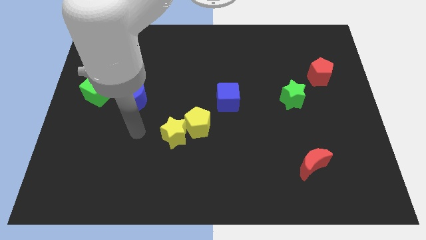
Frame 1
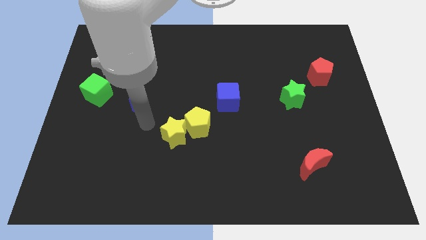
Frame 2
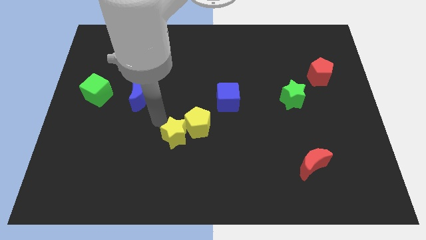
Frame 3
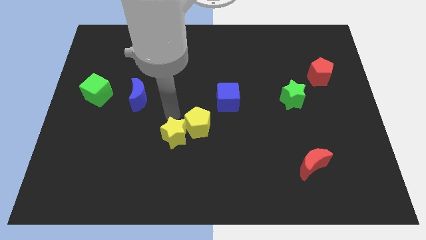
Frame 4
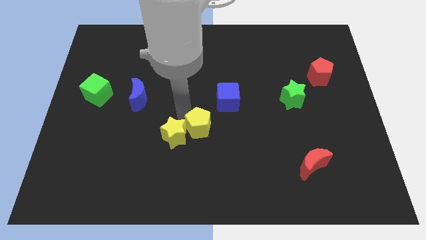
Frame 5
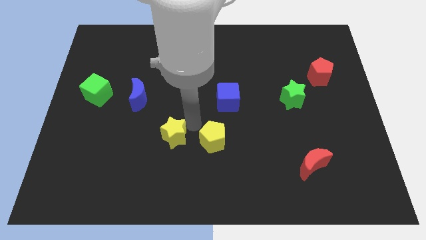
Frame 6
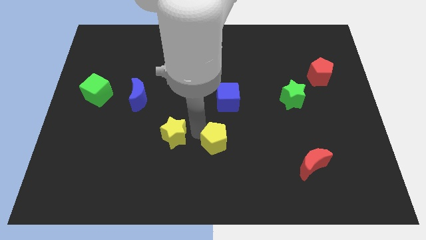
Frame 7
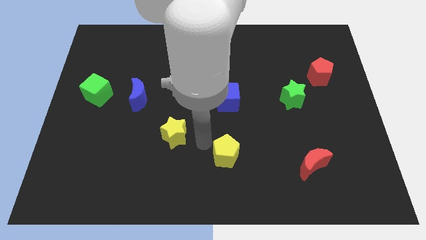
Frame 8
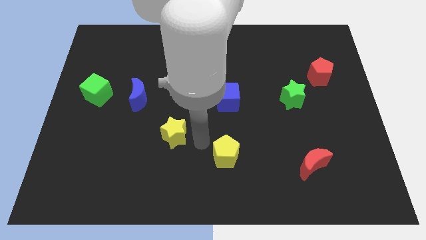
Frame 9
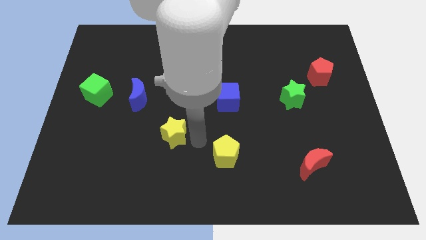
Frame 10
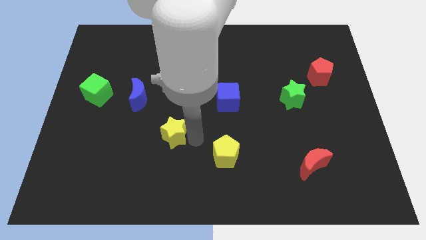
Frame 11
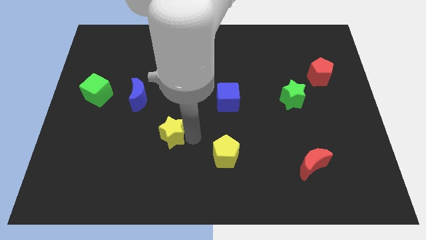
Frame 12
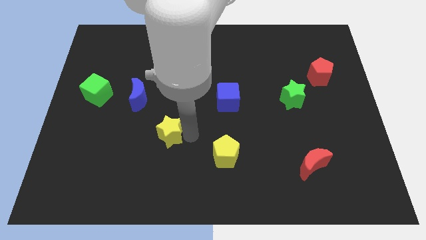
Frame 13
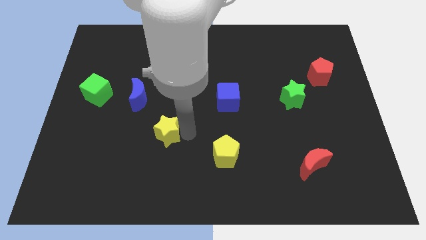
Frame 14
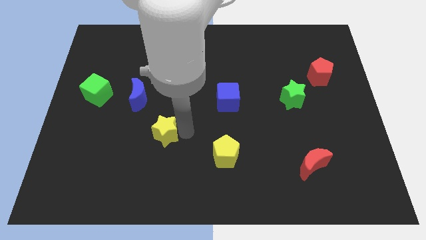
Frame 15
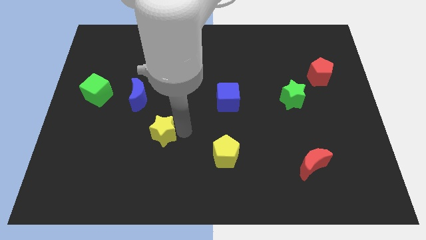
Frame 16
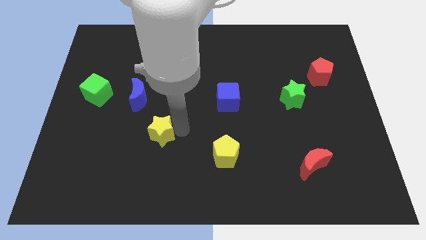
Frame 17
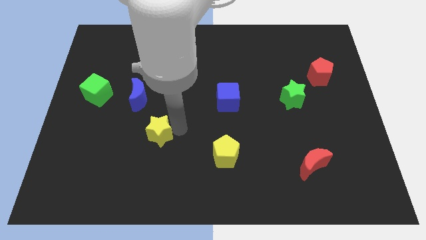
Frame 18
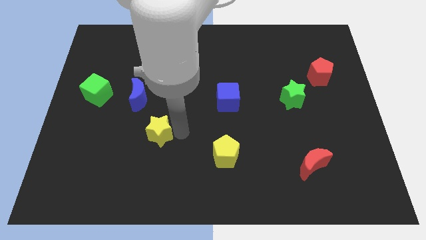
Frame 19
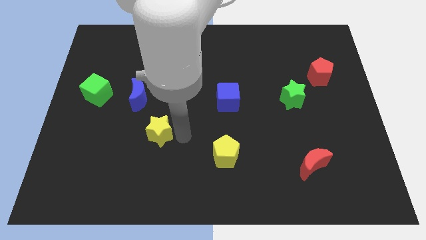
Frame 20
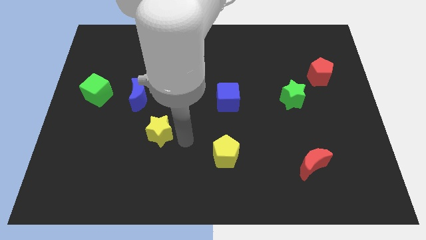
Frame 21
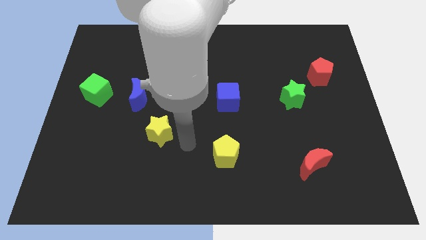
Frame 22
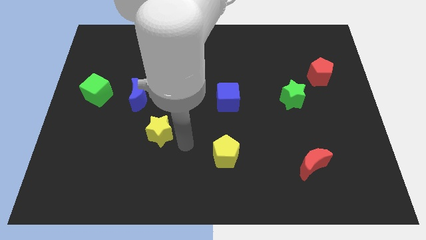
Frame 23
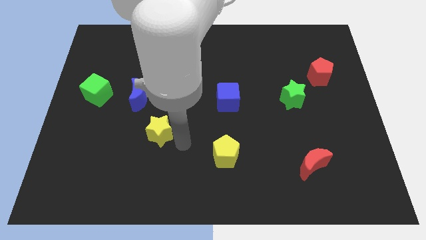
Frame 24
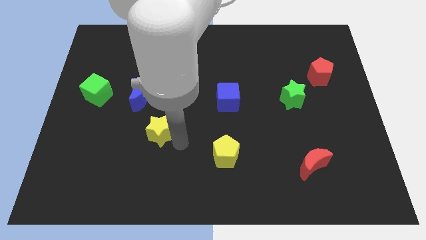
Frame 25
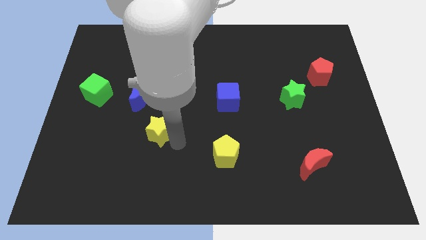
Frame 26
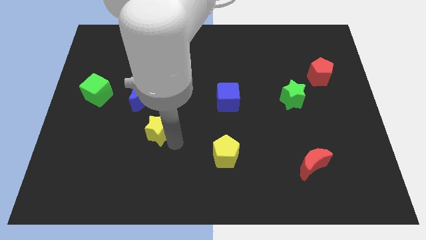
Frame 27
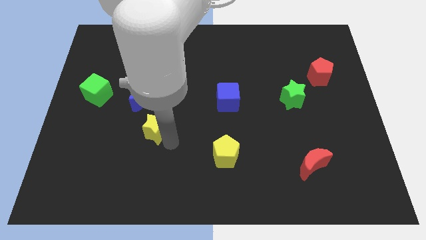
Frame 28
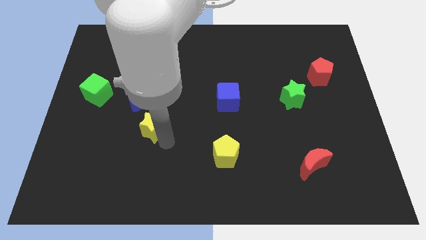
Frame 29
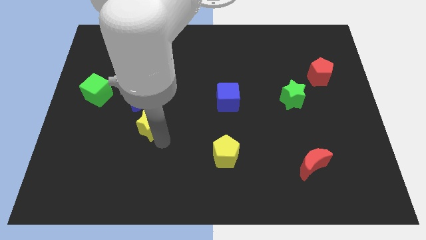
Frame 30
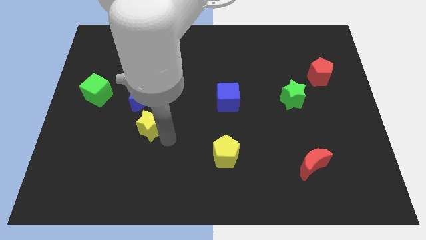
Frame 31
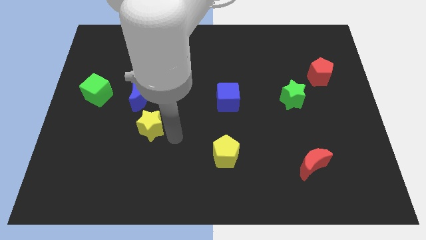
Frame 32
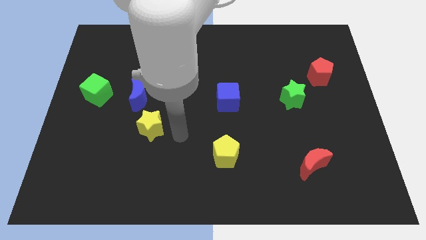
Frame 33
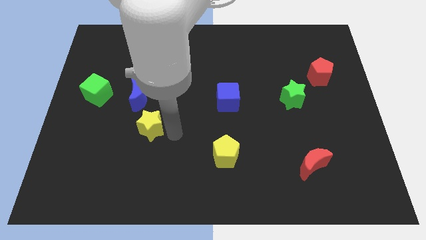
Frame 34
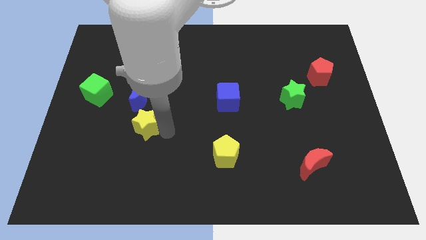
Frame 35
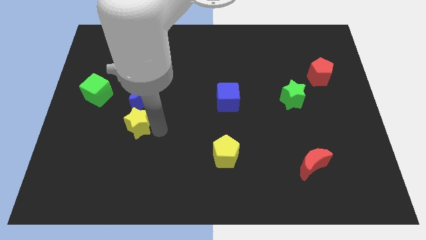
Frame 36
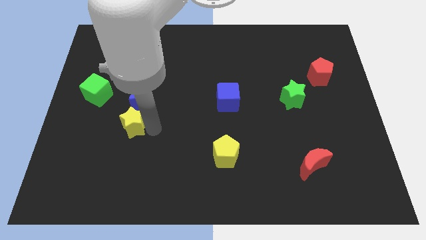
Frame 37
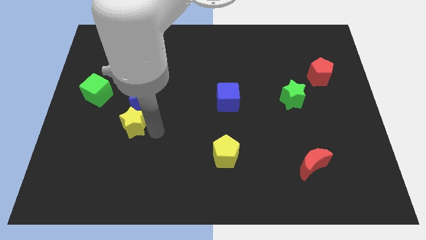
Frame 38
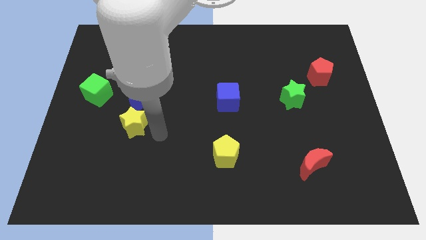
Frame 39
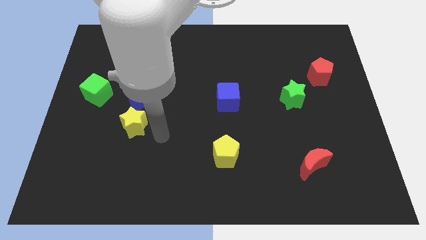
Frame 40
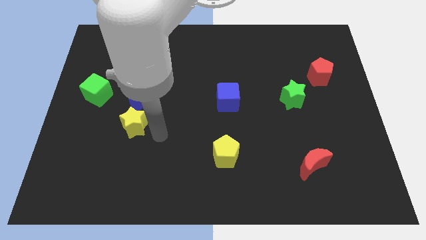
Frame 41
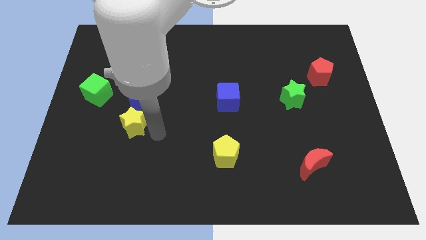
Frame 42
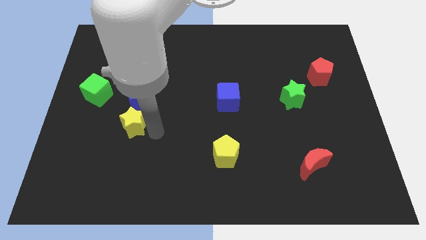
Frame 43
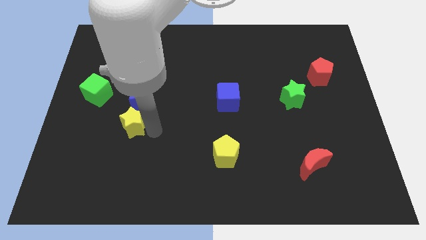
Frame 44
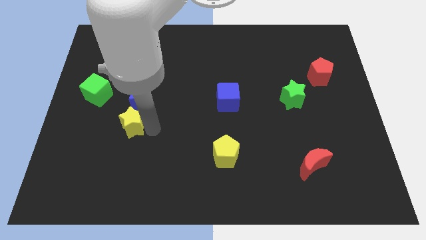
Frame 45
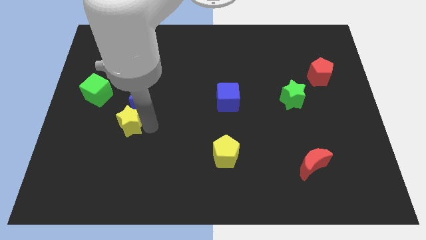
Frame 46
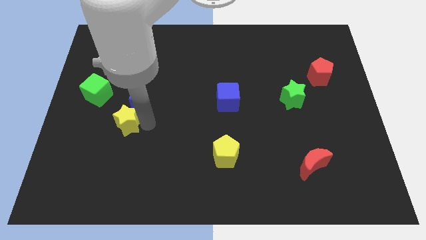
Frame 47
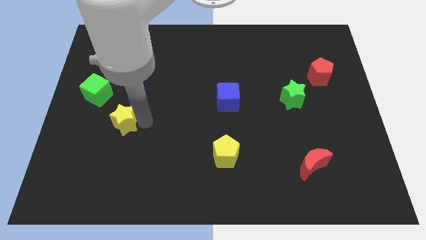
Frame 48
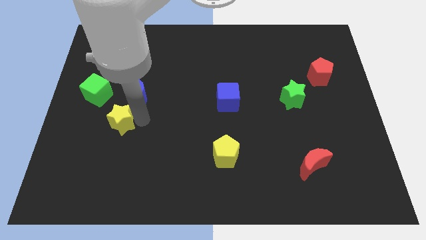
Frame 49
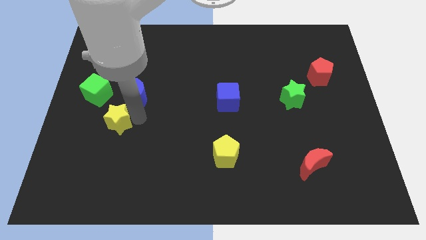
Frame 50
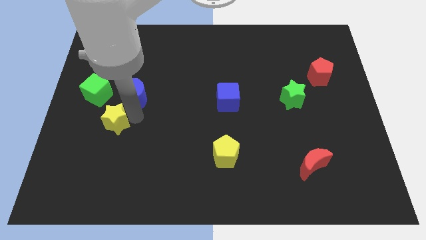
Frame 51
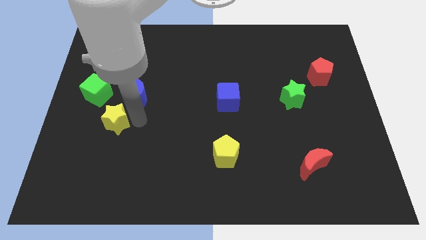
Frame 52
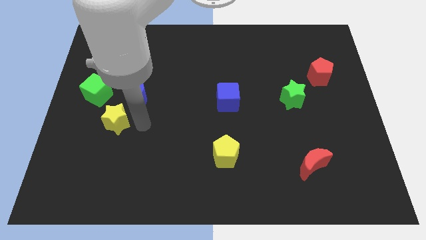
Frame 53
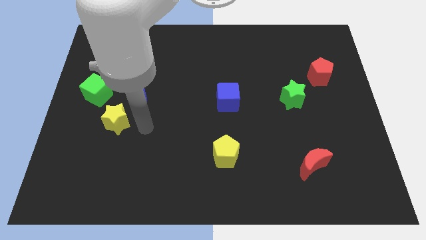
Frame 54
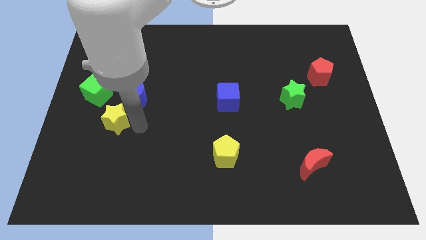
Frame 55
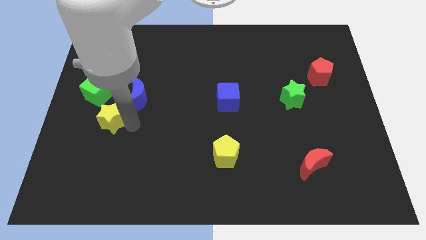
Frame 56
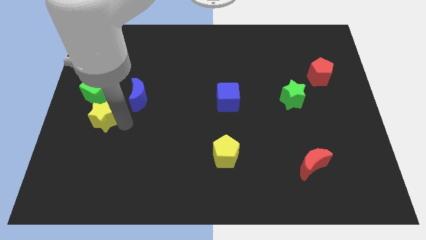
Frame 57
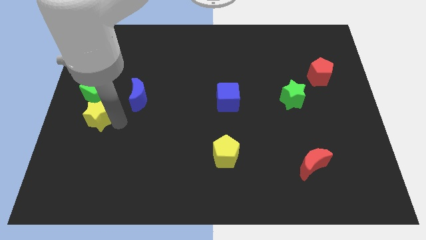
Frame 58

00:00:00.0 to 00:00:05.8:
put the yellow star to the center left

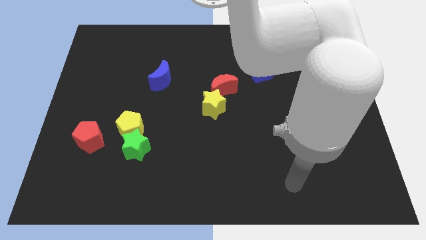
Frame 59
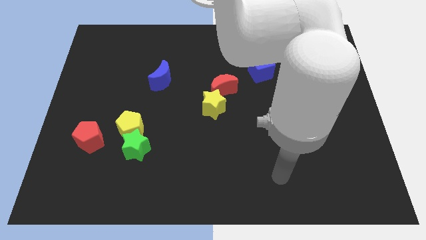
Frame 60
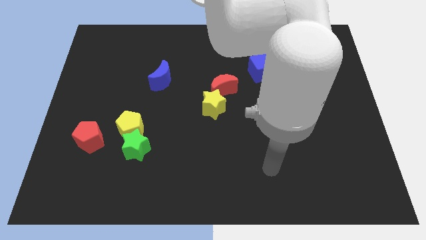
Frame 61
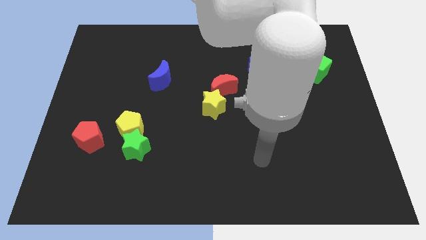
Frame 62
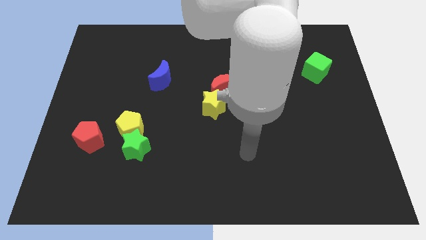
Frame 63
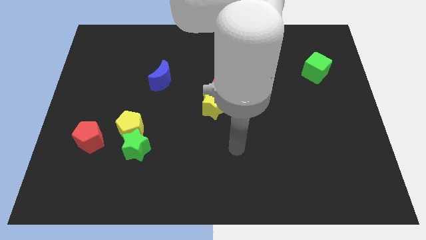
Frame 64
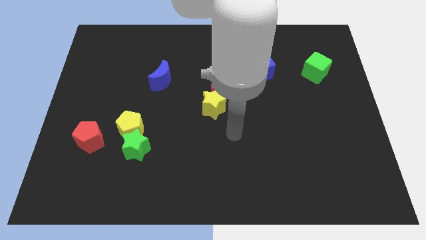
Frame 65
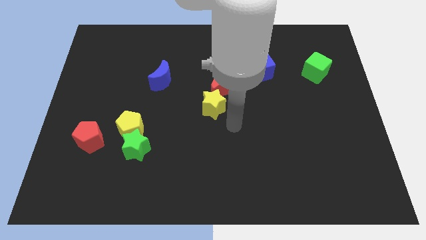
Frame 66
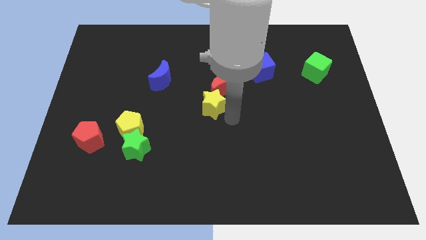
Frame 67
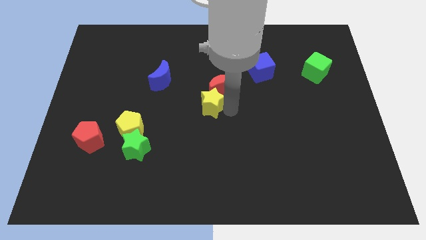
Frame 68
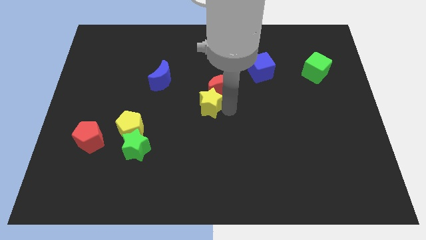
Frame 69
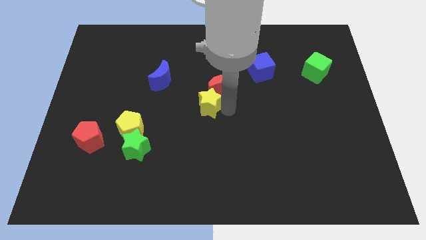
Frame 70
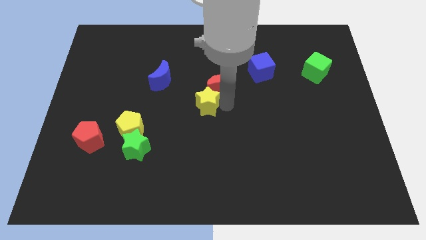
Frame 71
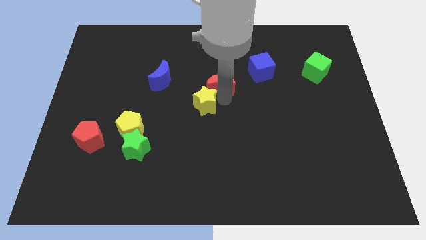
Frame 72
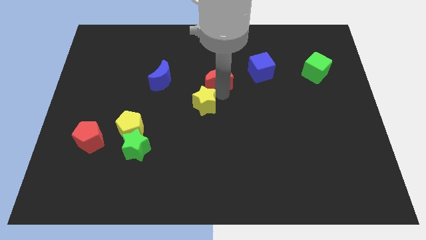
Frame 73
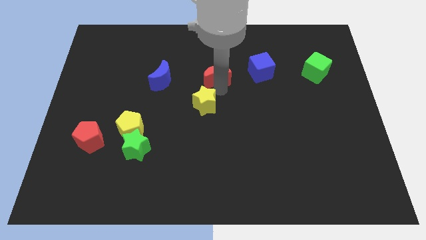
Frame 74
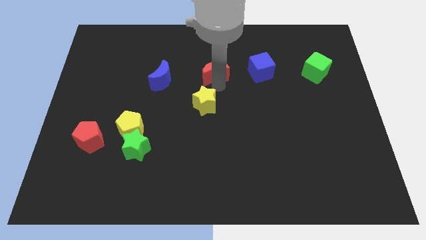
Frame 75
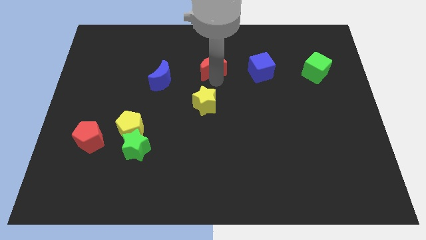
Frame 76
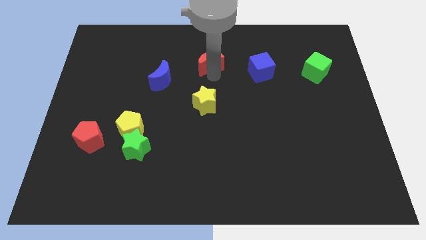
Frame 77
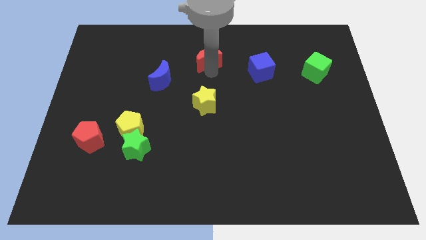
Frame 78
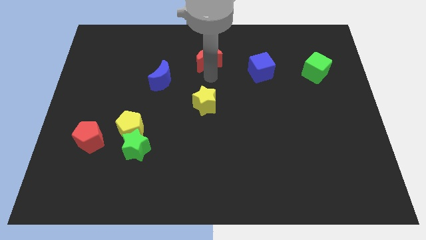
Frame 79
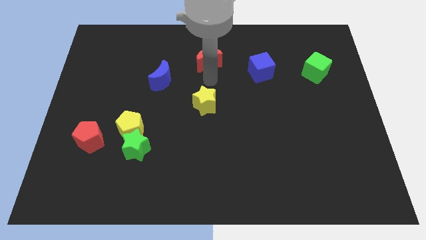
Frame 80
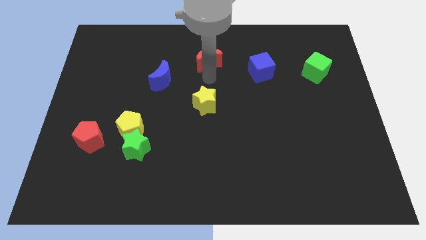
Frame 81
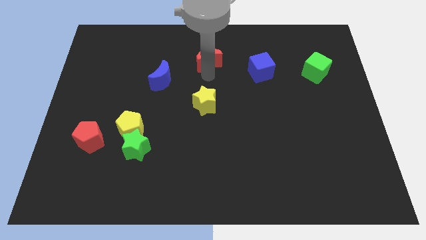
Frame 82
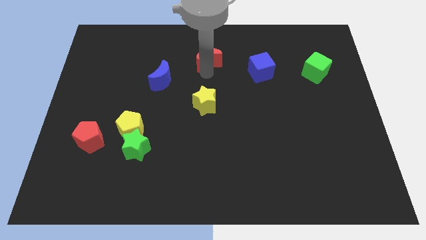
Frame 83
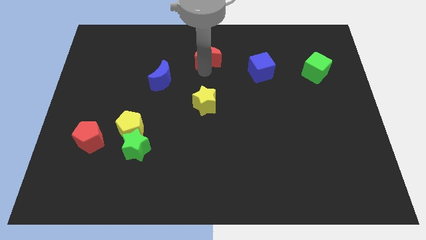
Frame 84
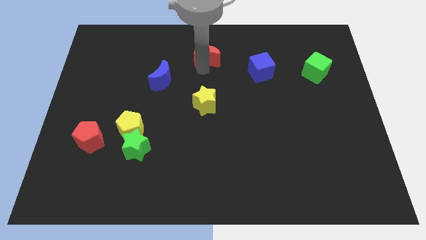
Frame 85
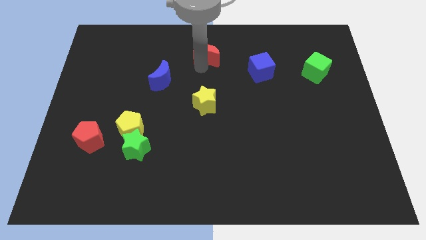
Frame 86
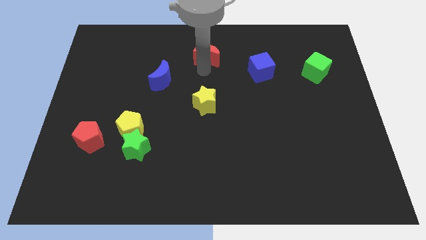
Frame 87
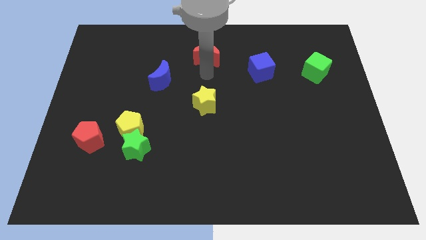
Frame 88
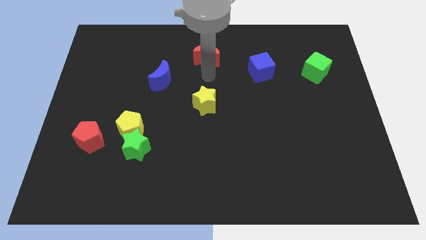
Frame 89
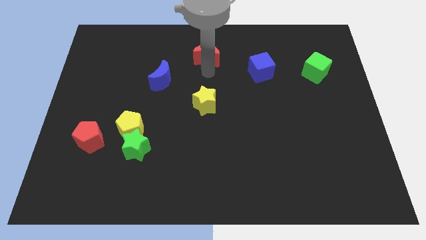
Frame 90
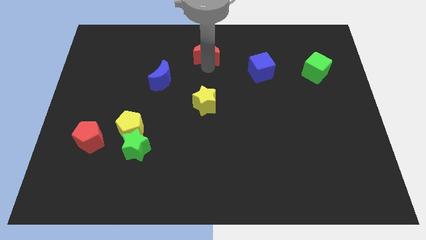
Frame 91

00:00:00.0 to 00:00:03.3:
put the red moon to the top side
